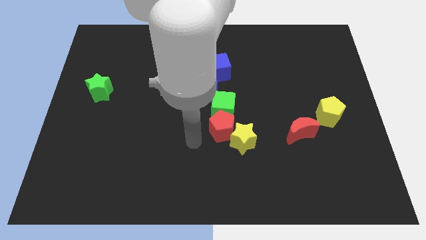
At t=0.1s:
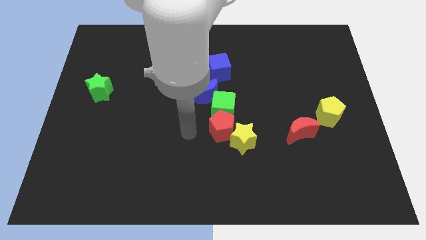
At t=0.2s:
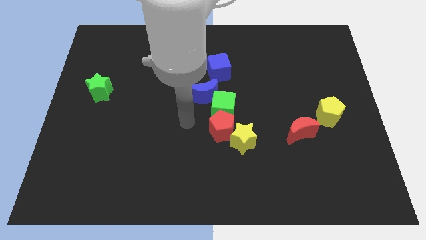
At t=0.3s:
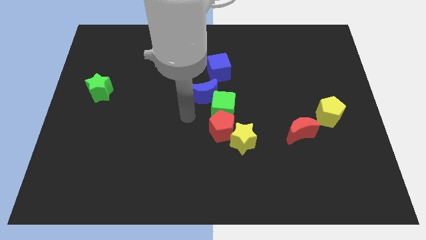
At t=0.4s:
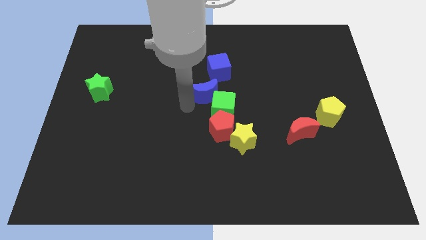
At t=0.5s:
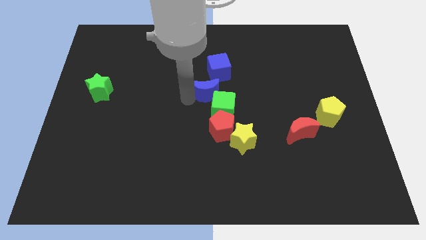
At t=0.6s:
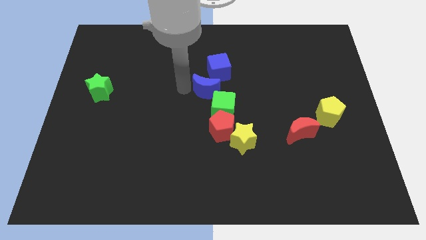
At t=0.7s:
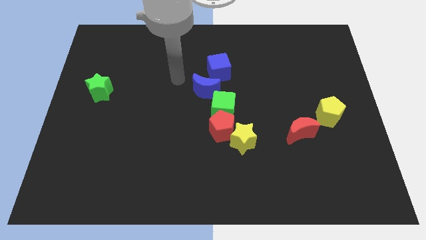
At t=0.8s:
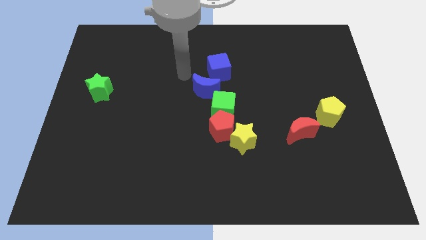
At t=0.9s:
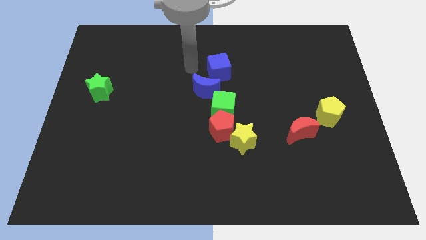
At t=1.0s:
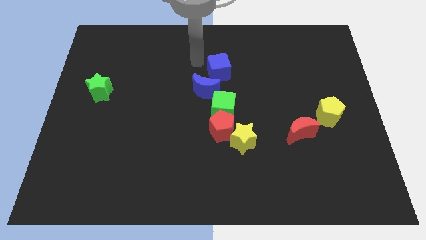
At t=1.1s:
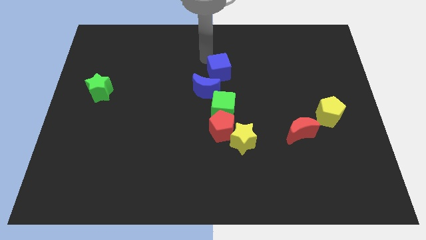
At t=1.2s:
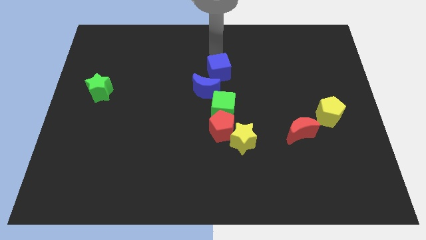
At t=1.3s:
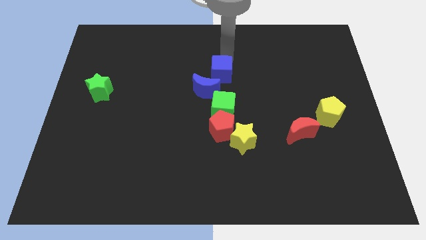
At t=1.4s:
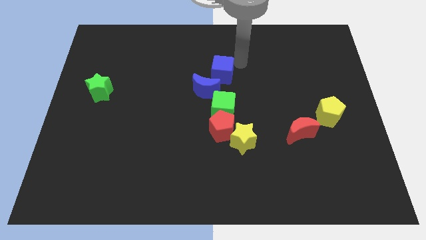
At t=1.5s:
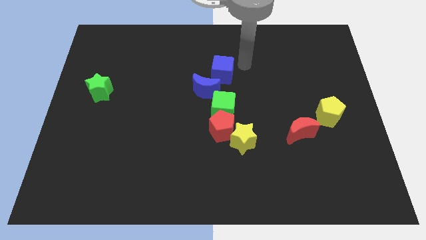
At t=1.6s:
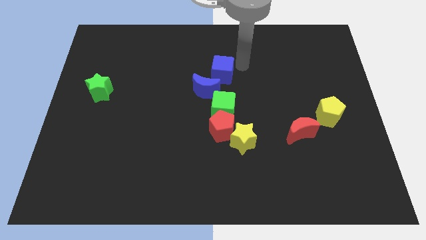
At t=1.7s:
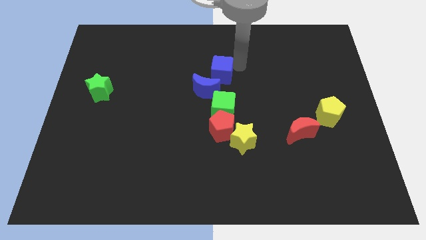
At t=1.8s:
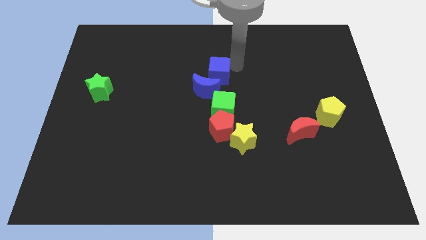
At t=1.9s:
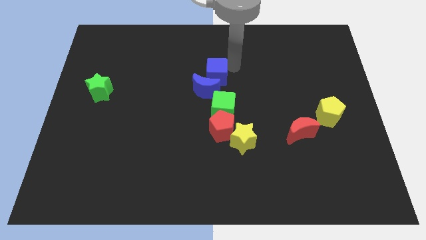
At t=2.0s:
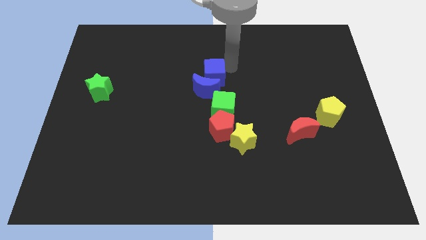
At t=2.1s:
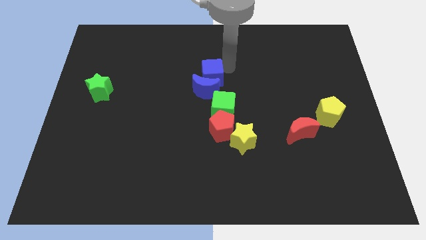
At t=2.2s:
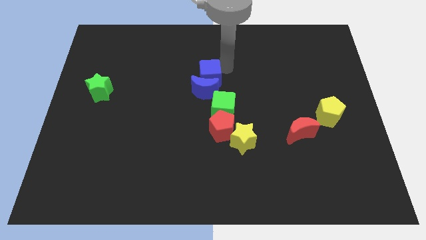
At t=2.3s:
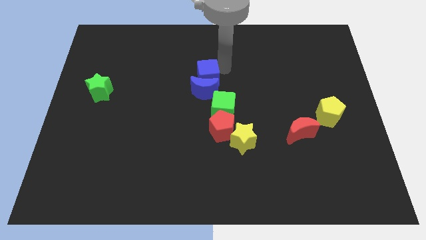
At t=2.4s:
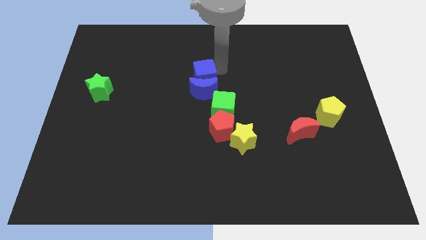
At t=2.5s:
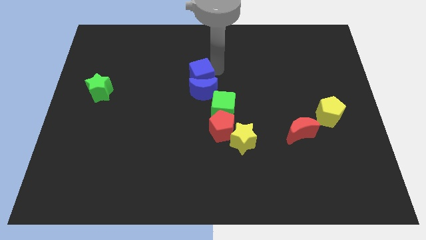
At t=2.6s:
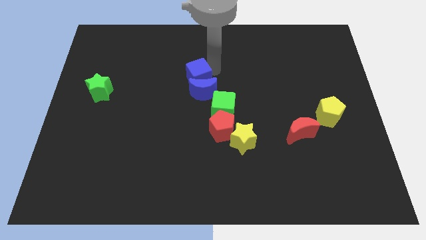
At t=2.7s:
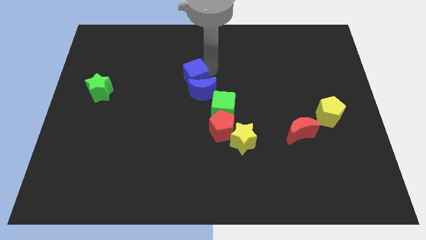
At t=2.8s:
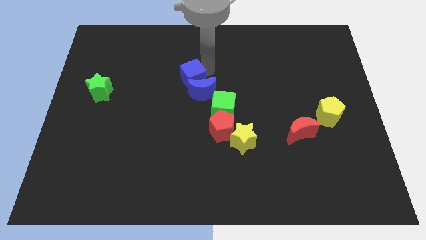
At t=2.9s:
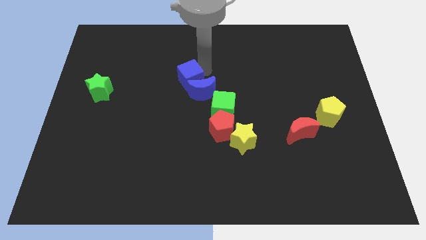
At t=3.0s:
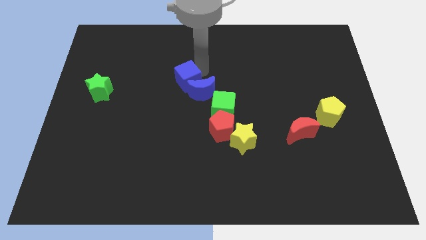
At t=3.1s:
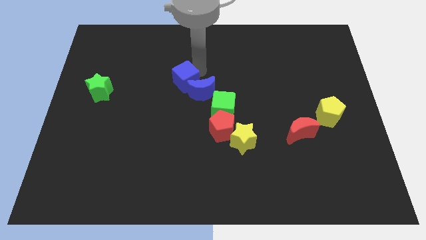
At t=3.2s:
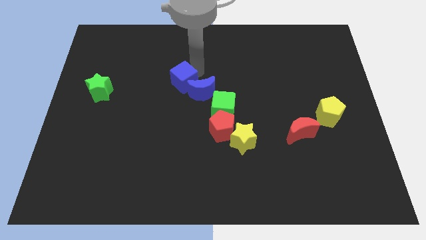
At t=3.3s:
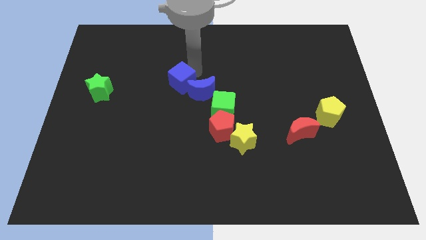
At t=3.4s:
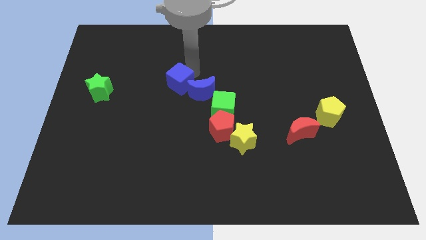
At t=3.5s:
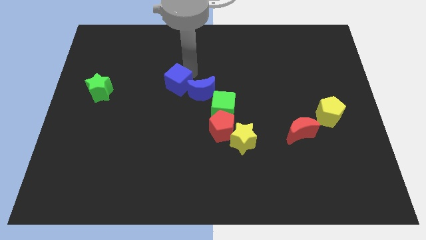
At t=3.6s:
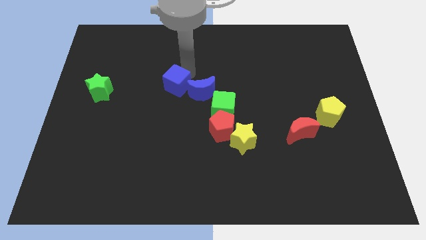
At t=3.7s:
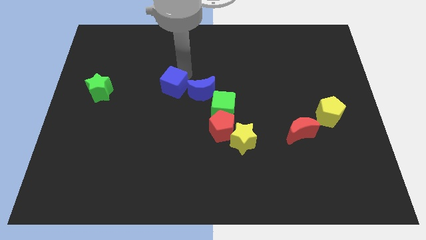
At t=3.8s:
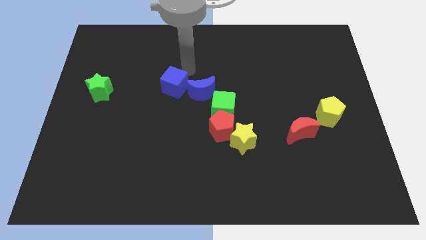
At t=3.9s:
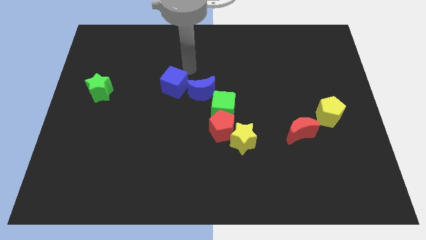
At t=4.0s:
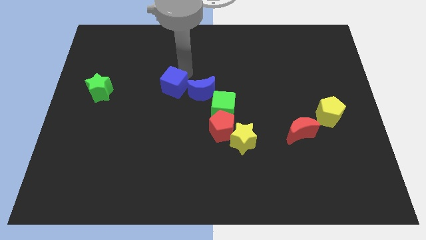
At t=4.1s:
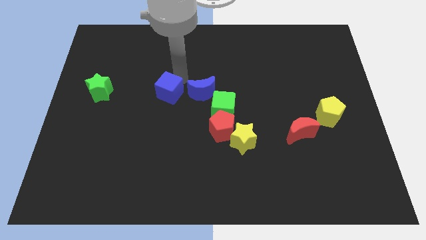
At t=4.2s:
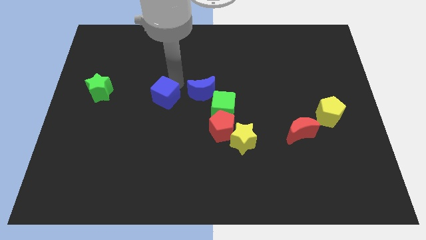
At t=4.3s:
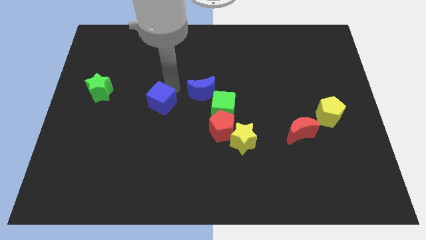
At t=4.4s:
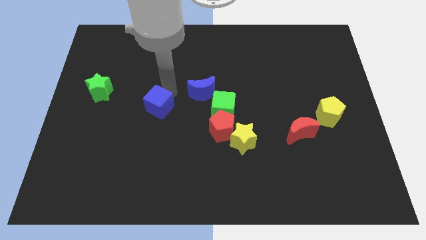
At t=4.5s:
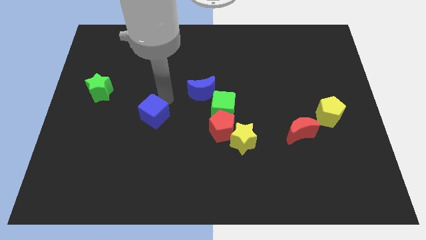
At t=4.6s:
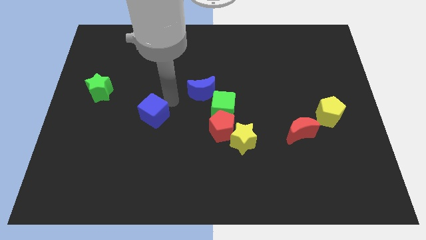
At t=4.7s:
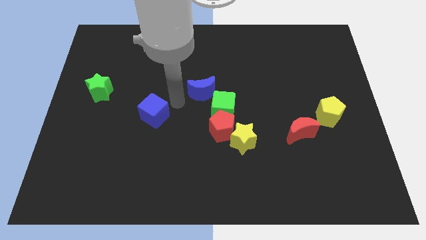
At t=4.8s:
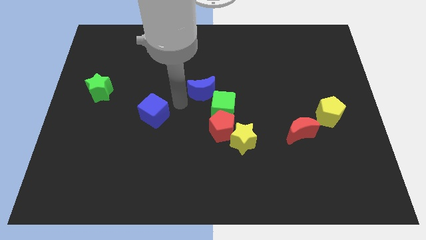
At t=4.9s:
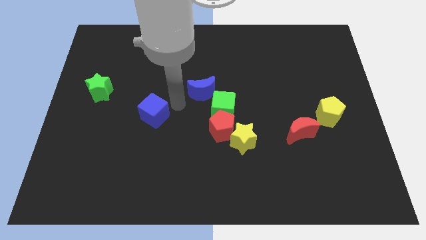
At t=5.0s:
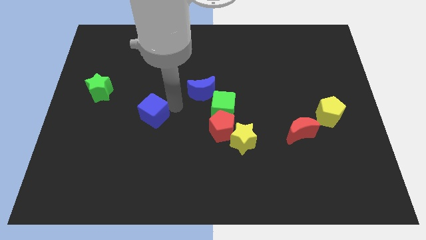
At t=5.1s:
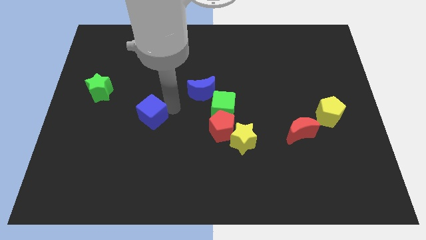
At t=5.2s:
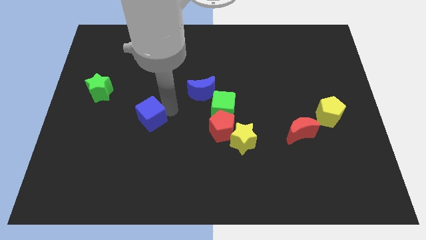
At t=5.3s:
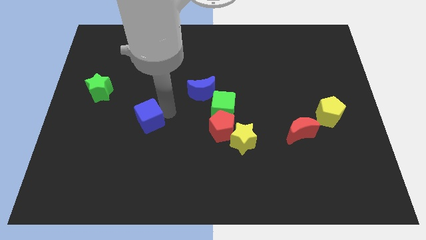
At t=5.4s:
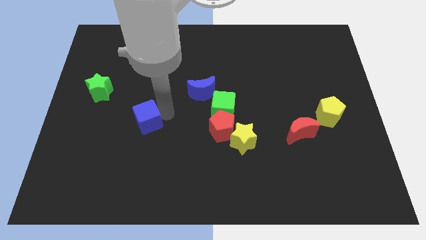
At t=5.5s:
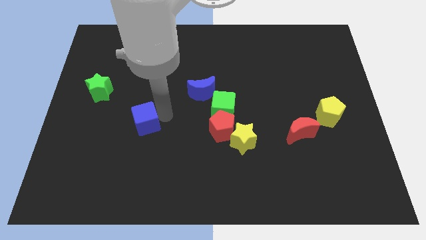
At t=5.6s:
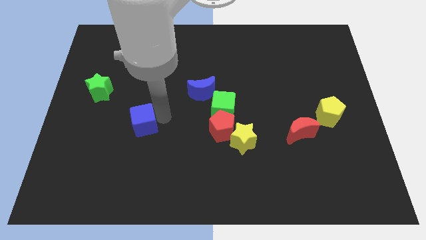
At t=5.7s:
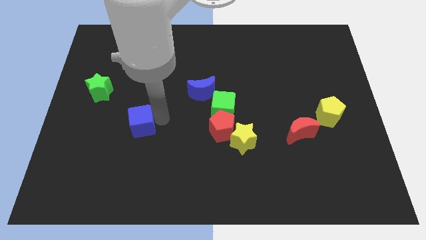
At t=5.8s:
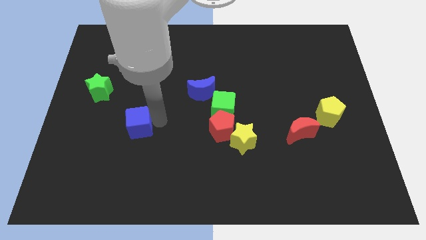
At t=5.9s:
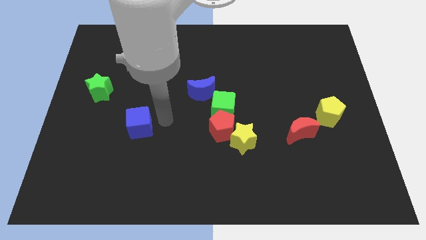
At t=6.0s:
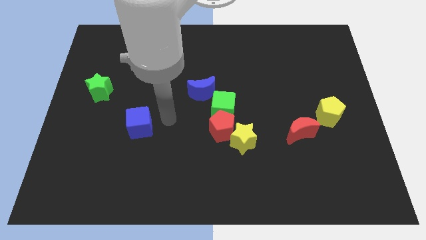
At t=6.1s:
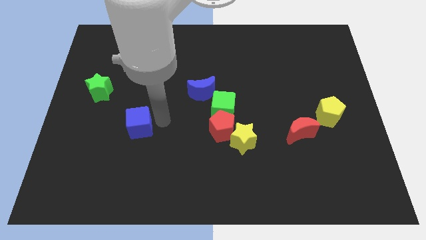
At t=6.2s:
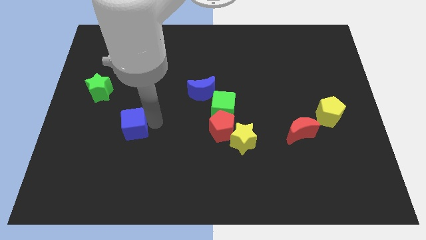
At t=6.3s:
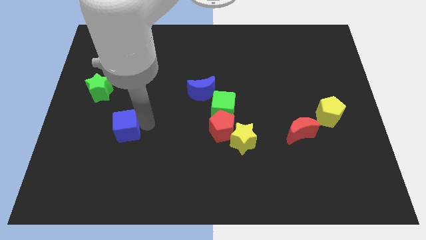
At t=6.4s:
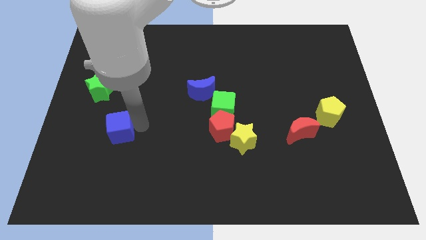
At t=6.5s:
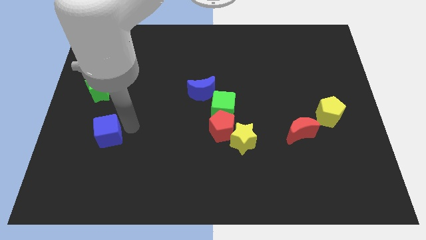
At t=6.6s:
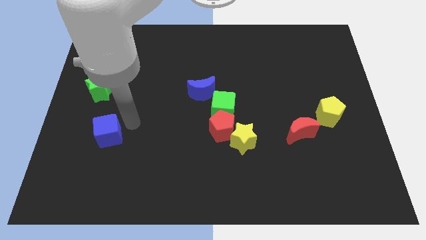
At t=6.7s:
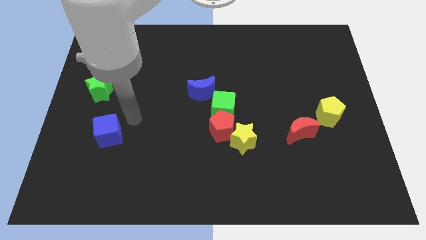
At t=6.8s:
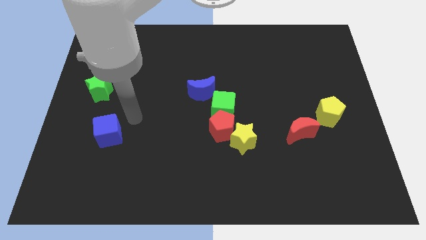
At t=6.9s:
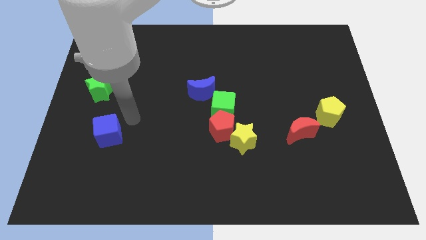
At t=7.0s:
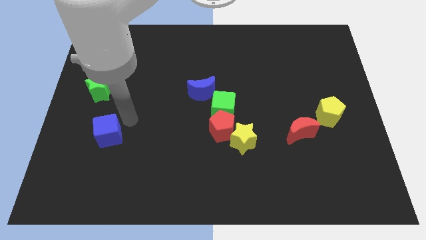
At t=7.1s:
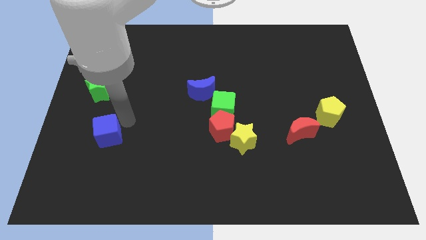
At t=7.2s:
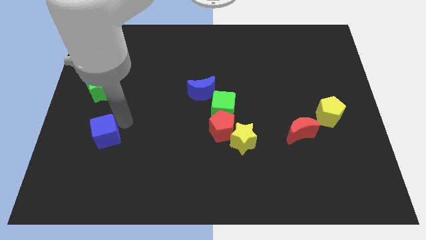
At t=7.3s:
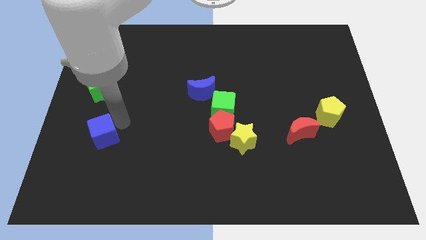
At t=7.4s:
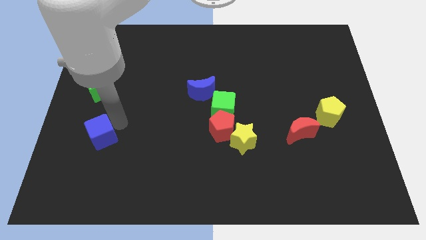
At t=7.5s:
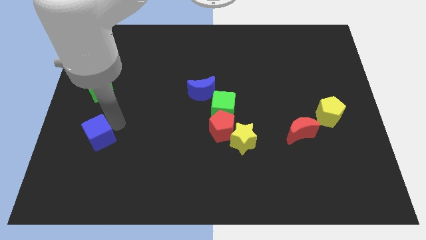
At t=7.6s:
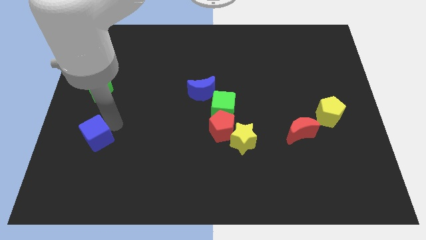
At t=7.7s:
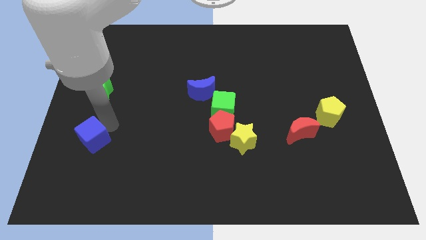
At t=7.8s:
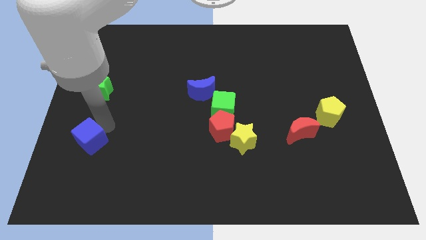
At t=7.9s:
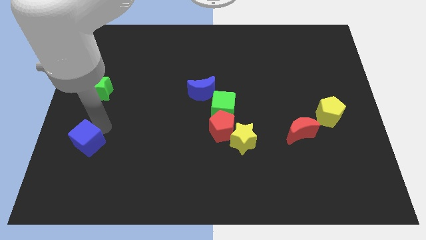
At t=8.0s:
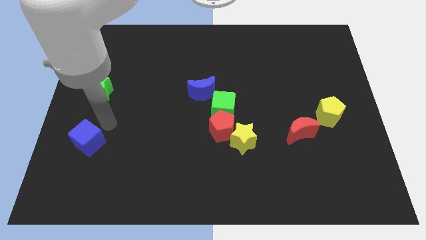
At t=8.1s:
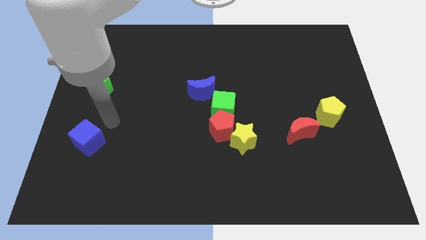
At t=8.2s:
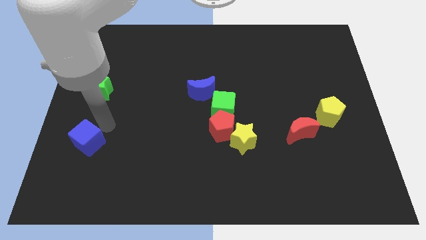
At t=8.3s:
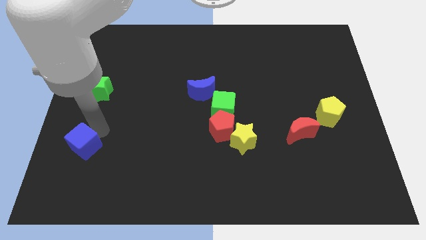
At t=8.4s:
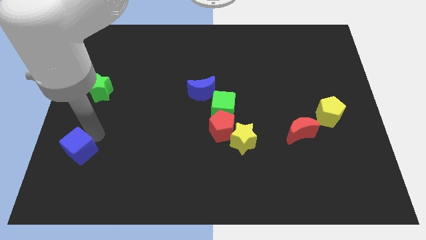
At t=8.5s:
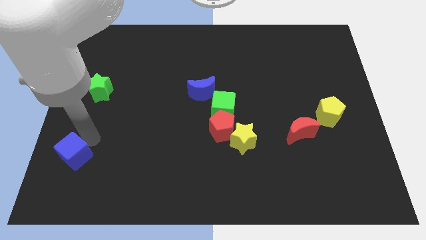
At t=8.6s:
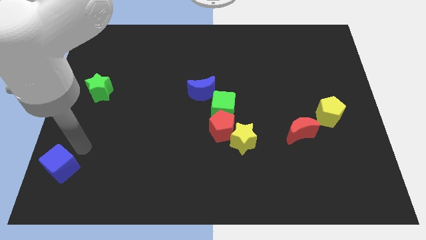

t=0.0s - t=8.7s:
move the blue cube to the bottom left of the board
